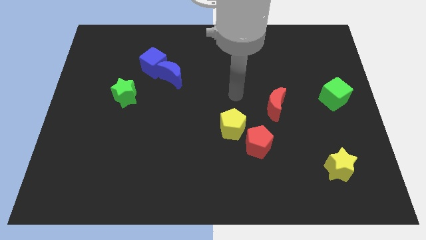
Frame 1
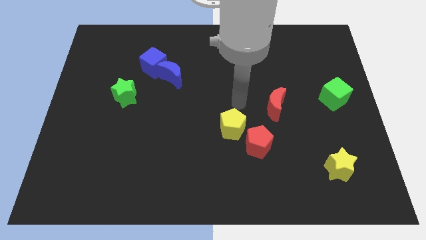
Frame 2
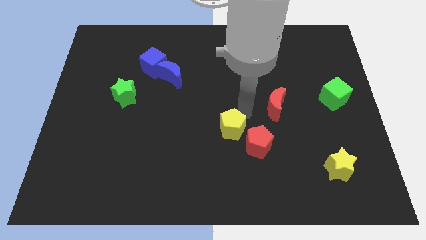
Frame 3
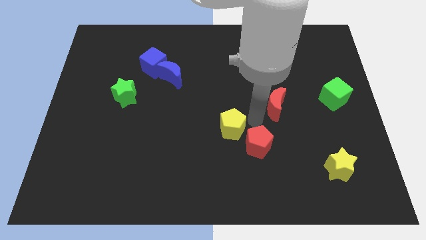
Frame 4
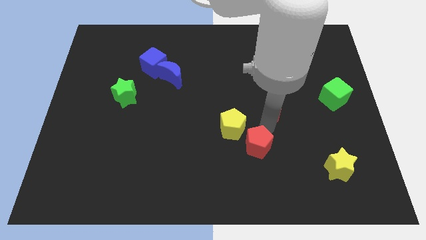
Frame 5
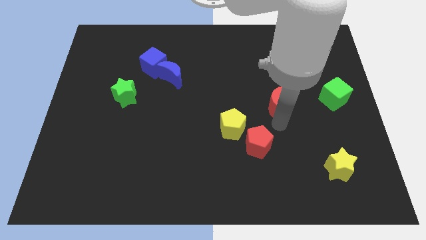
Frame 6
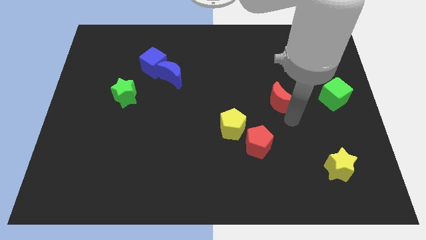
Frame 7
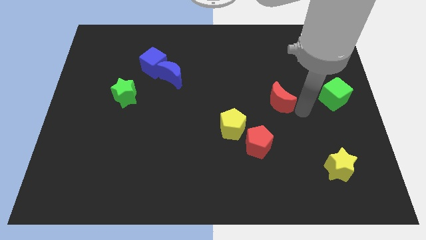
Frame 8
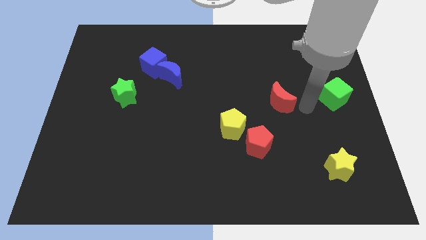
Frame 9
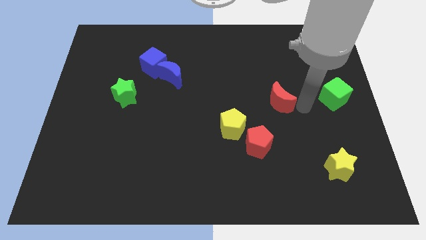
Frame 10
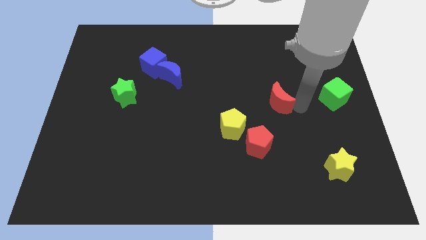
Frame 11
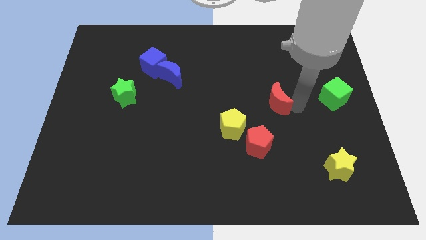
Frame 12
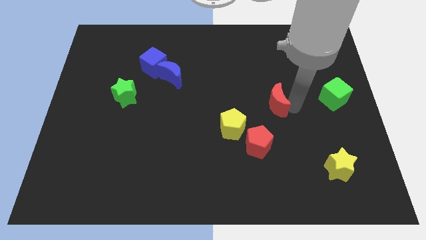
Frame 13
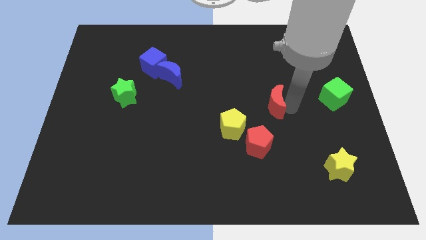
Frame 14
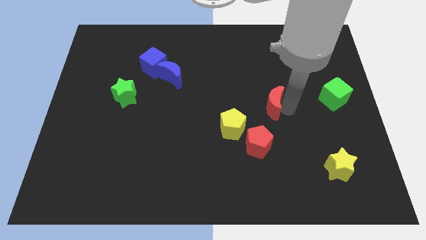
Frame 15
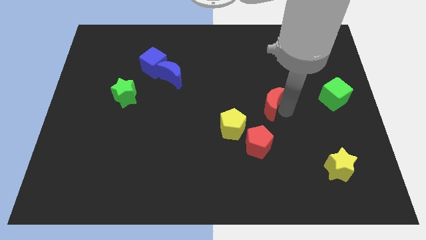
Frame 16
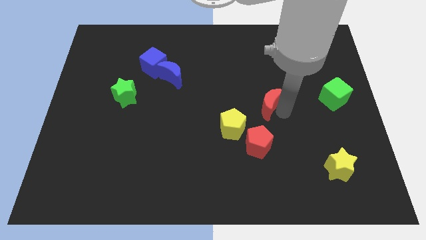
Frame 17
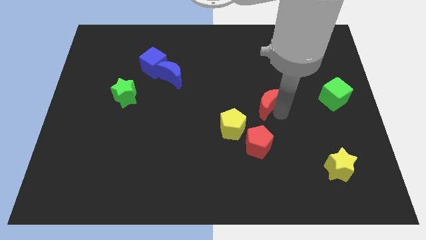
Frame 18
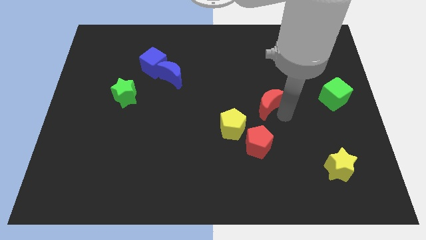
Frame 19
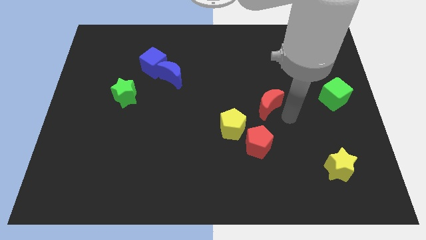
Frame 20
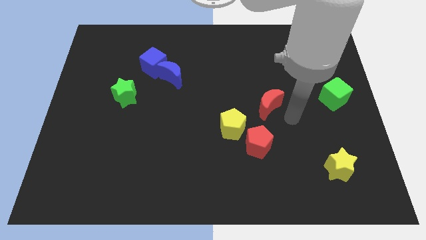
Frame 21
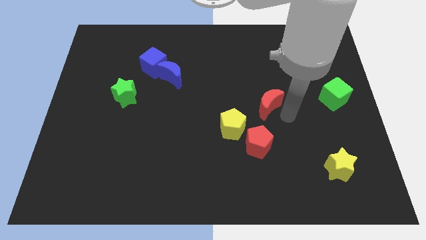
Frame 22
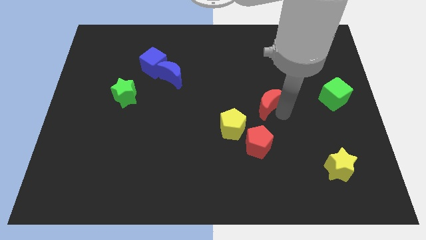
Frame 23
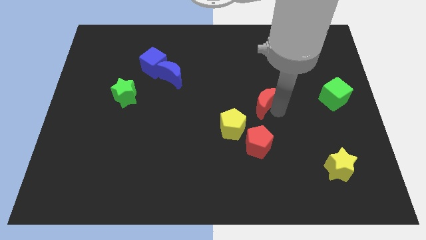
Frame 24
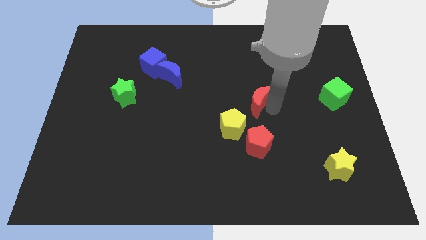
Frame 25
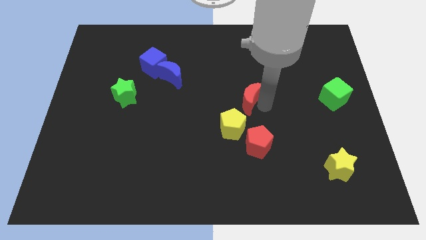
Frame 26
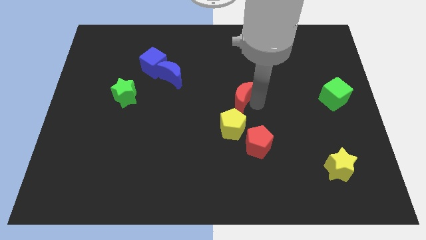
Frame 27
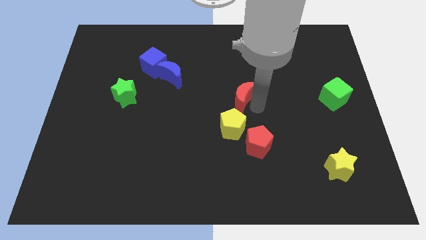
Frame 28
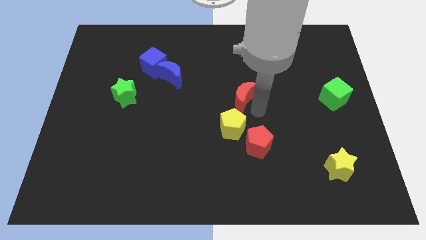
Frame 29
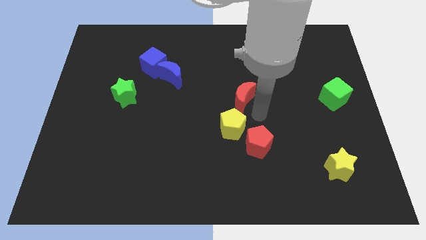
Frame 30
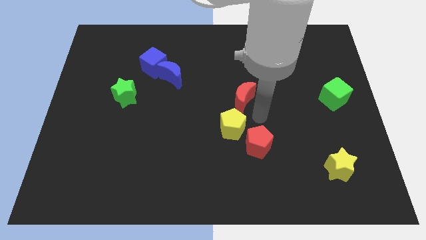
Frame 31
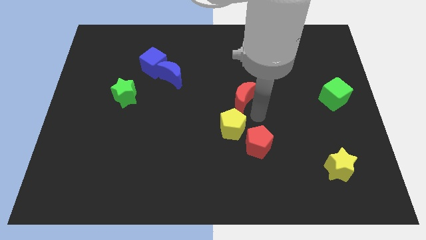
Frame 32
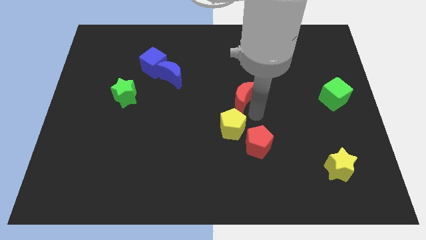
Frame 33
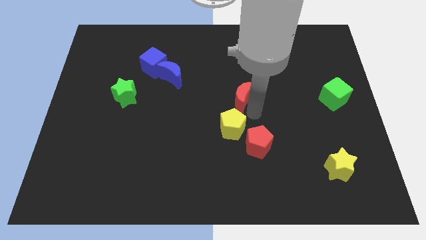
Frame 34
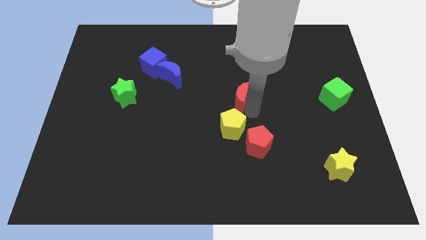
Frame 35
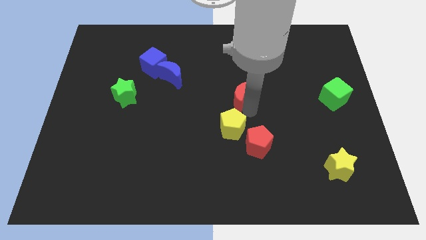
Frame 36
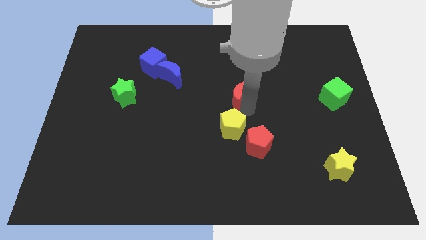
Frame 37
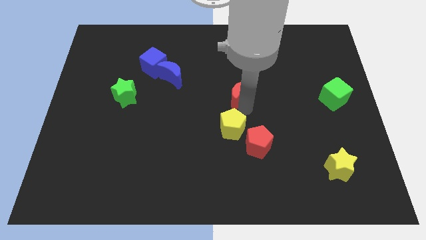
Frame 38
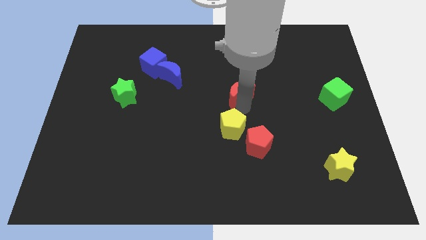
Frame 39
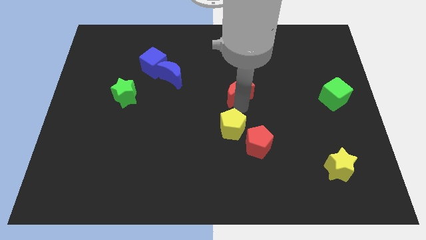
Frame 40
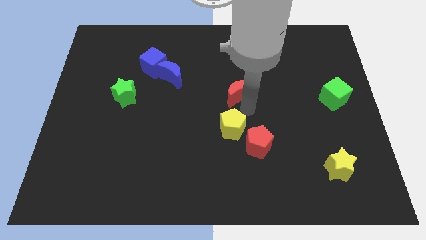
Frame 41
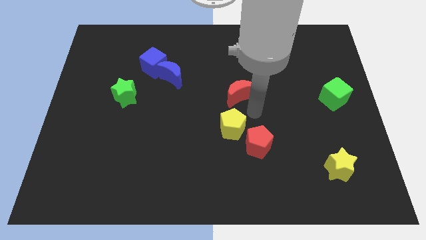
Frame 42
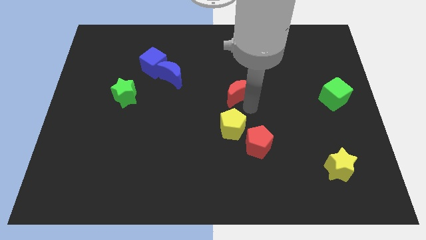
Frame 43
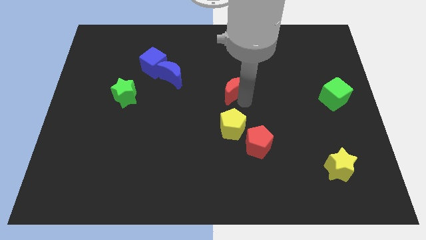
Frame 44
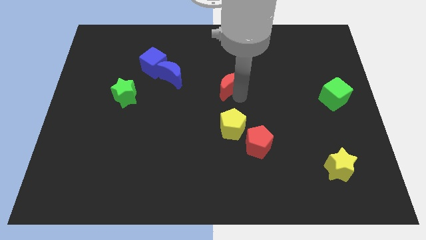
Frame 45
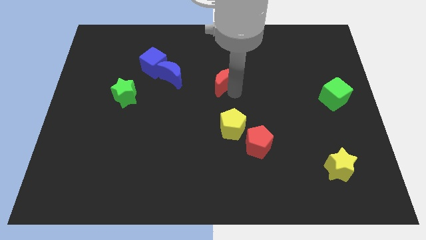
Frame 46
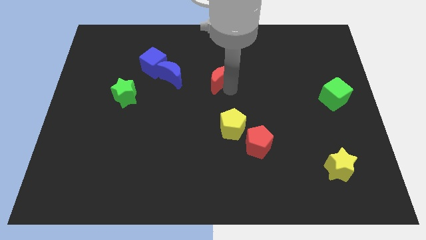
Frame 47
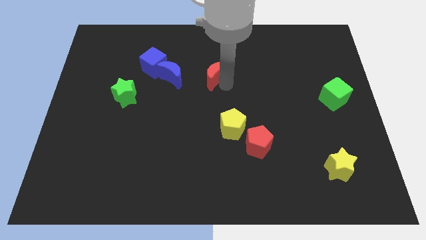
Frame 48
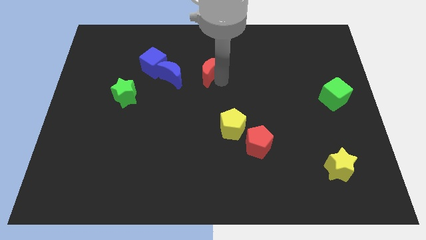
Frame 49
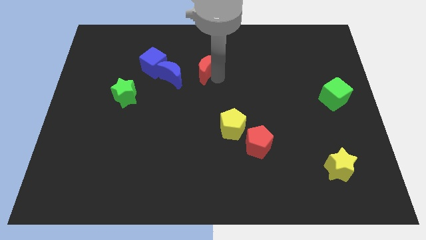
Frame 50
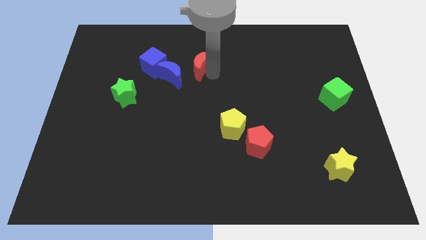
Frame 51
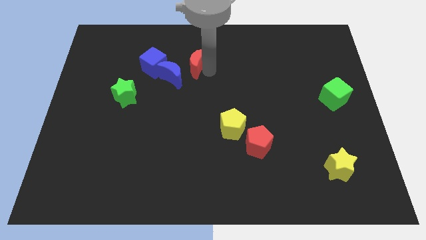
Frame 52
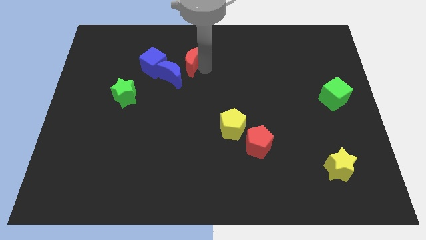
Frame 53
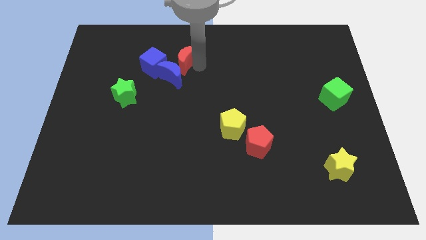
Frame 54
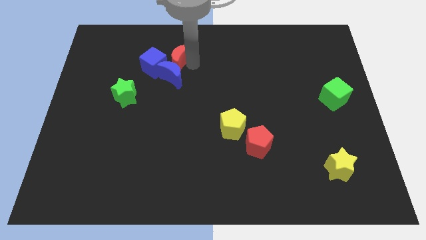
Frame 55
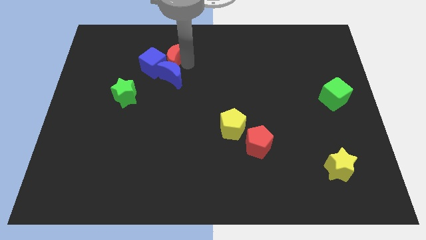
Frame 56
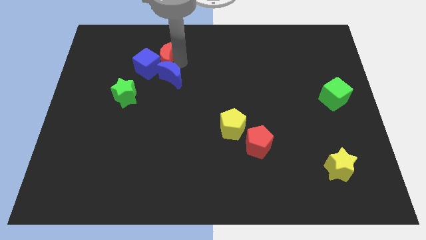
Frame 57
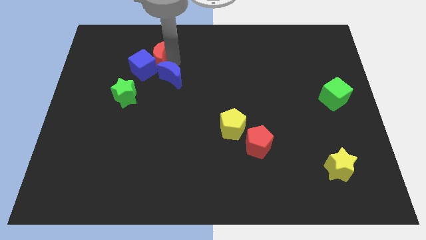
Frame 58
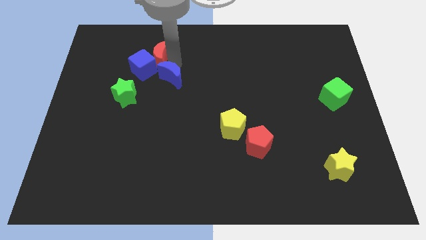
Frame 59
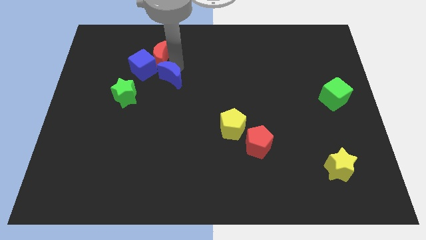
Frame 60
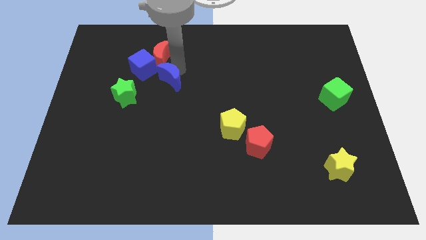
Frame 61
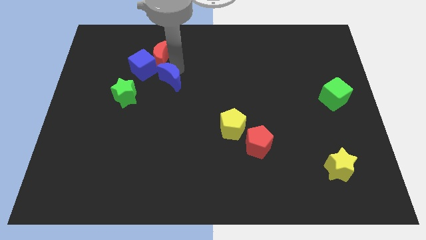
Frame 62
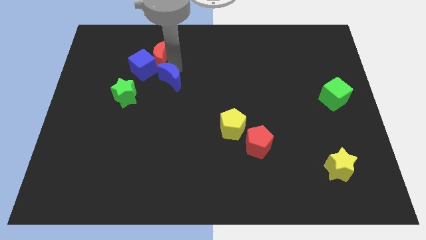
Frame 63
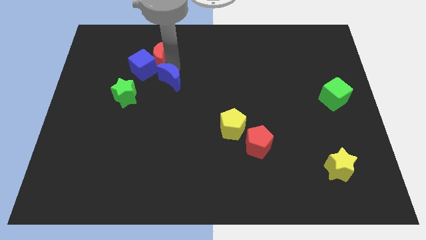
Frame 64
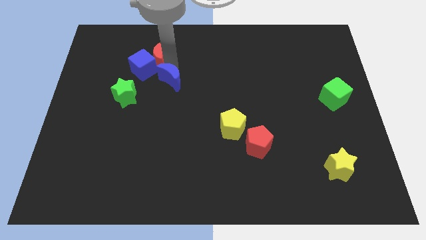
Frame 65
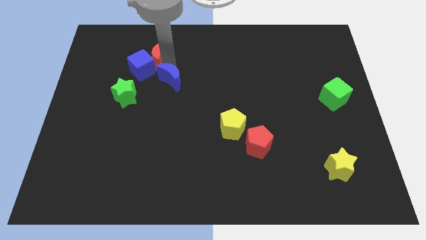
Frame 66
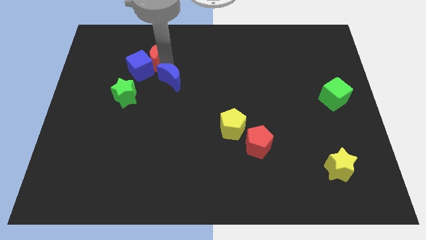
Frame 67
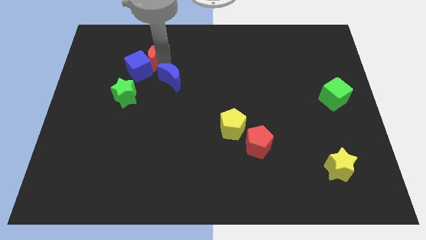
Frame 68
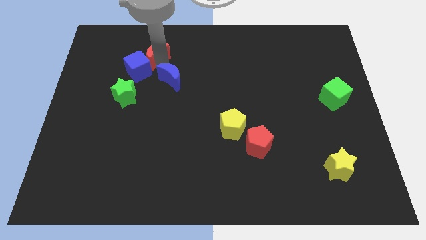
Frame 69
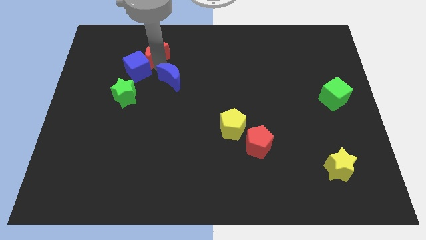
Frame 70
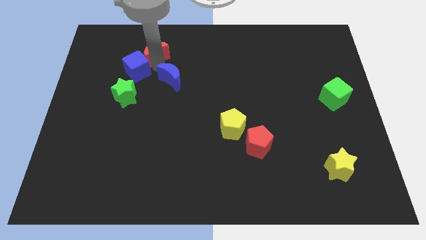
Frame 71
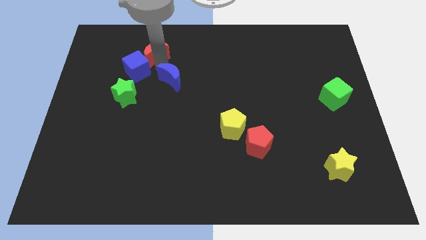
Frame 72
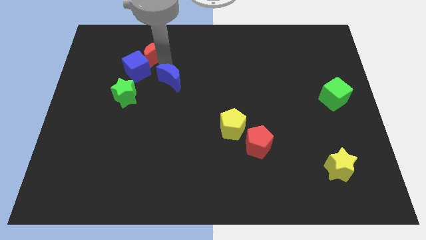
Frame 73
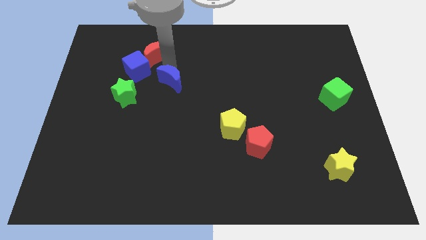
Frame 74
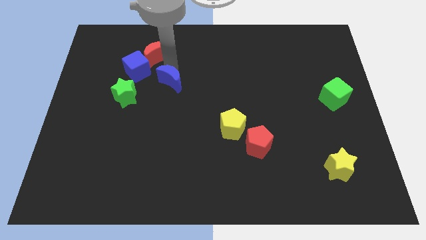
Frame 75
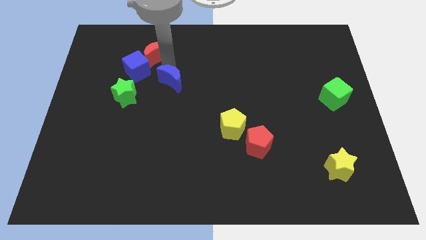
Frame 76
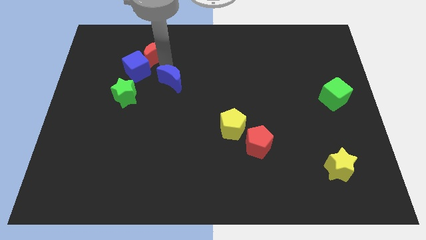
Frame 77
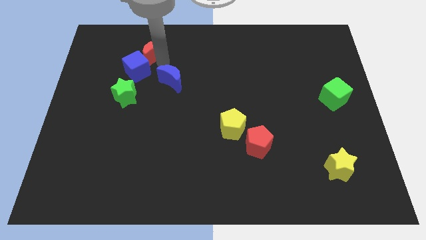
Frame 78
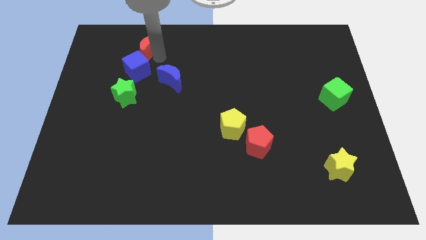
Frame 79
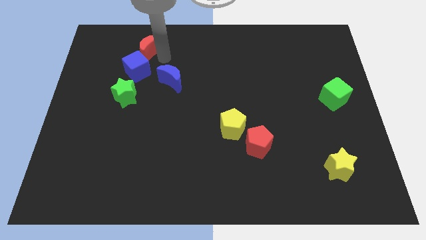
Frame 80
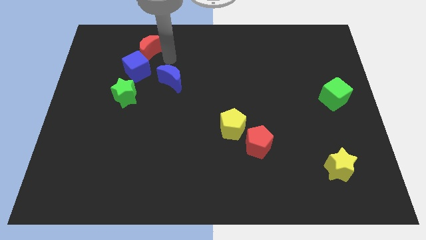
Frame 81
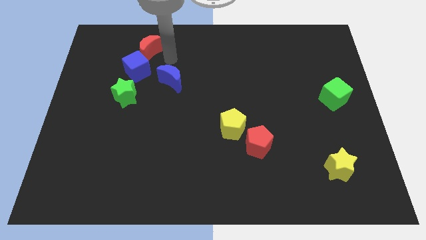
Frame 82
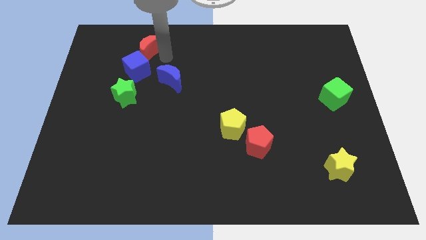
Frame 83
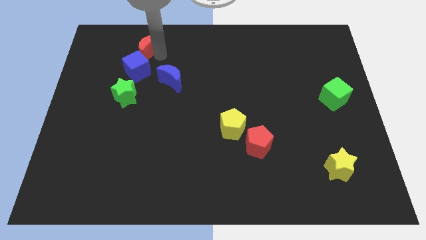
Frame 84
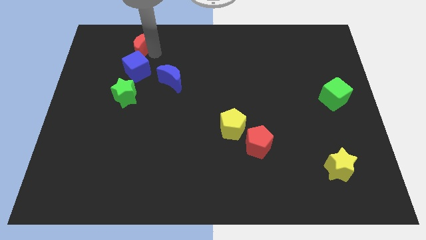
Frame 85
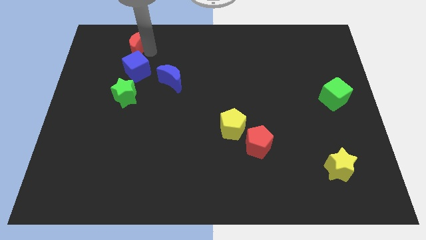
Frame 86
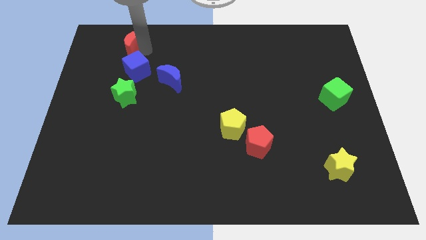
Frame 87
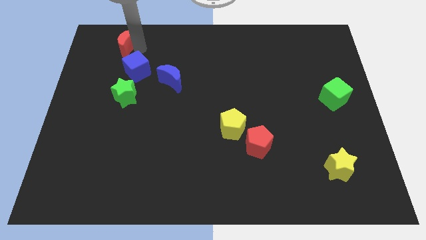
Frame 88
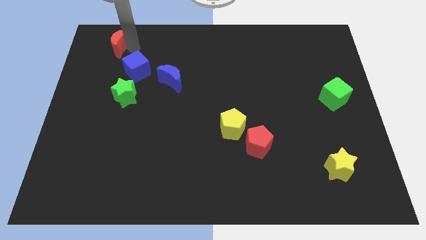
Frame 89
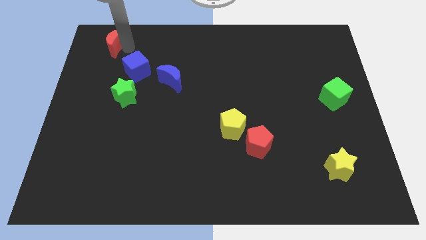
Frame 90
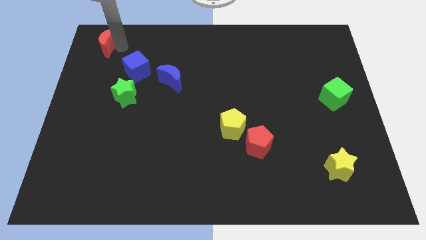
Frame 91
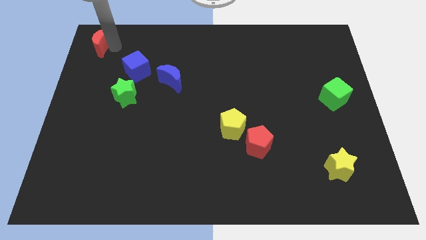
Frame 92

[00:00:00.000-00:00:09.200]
move the red moon to the top left corner
